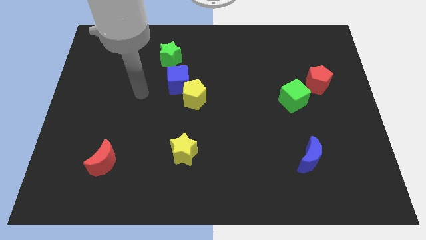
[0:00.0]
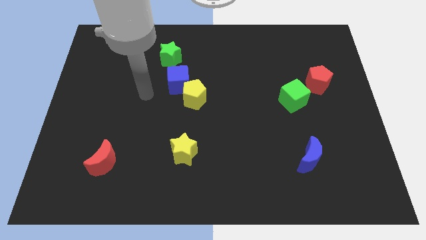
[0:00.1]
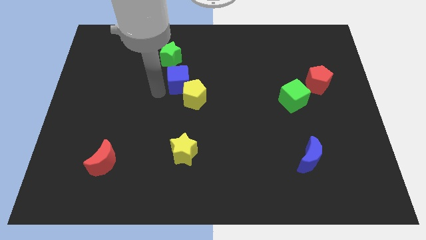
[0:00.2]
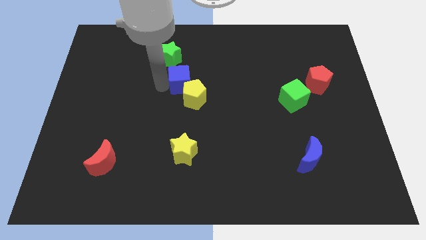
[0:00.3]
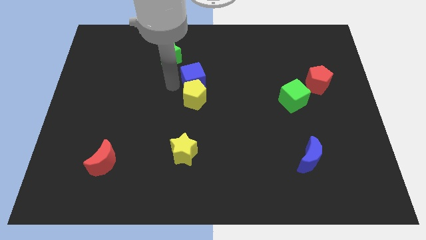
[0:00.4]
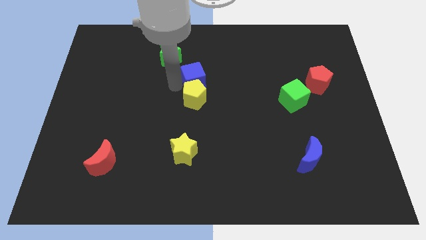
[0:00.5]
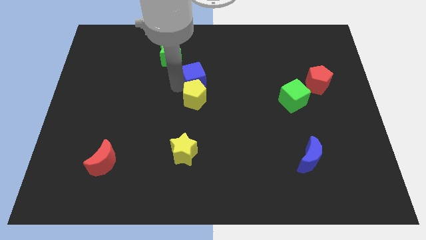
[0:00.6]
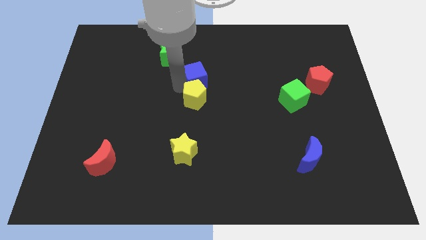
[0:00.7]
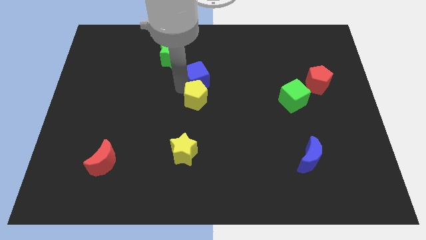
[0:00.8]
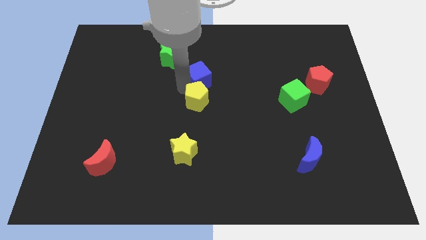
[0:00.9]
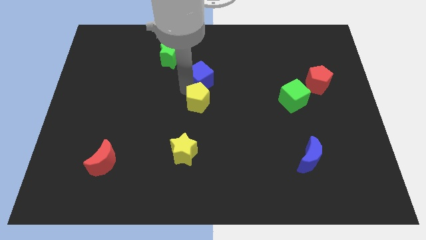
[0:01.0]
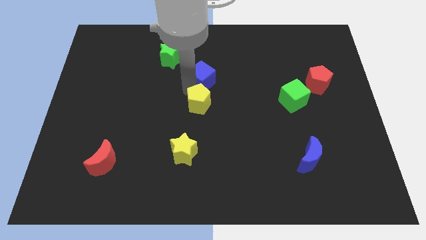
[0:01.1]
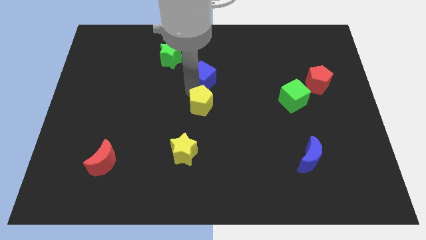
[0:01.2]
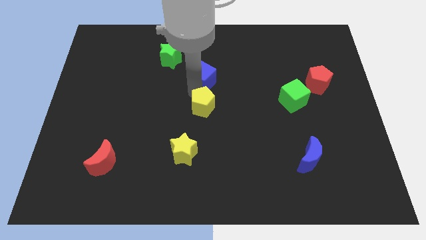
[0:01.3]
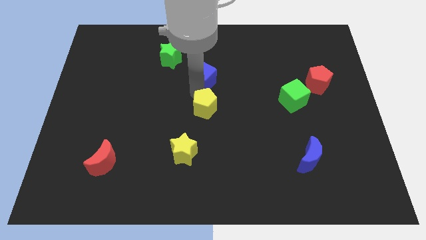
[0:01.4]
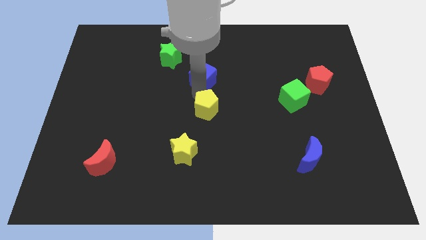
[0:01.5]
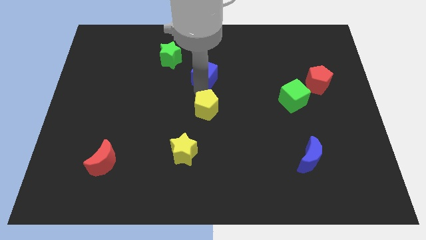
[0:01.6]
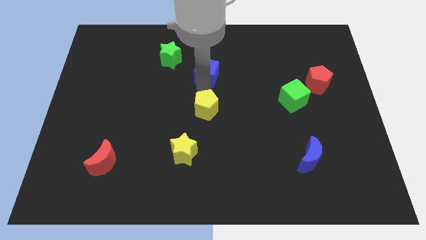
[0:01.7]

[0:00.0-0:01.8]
pull the yellow pentagon apart from the blue cube

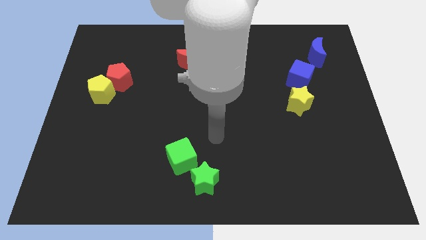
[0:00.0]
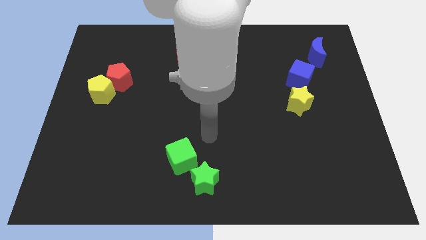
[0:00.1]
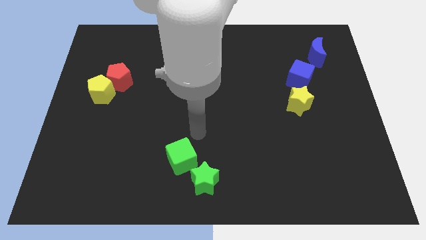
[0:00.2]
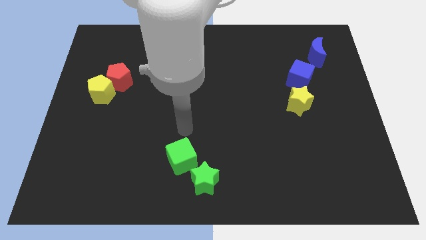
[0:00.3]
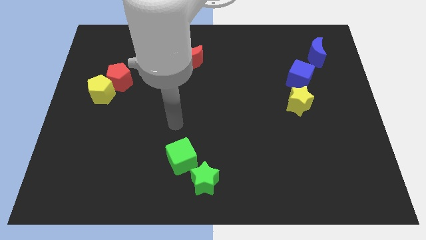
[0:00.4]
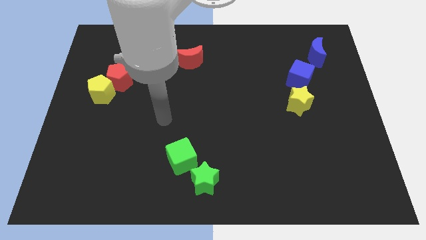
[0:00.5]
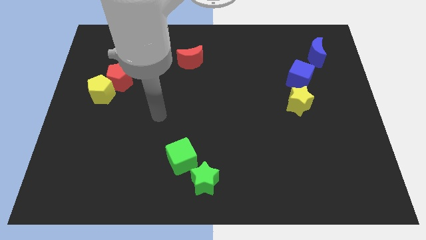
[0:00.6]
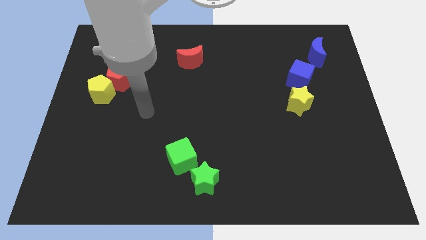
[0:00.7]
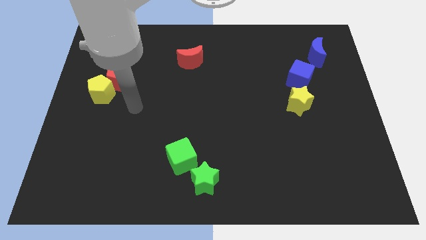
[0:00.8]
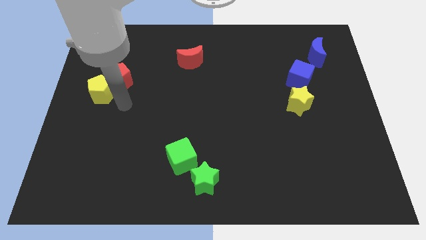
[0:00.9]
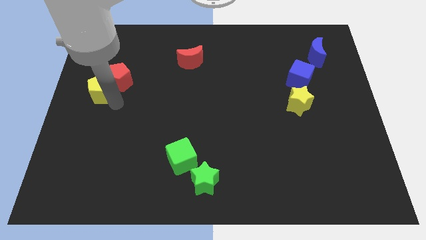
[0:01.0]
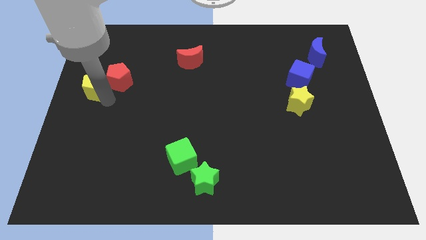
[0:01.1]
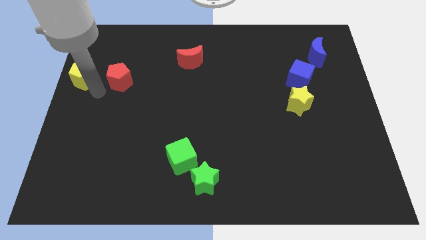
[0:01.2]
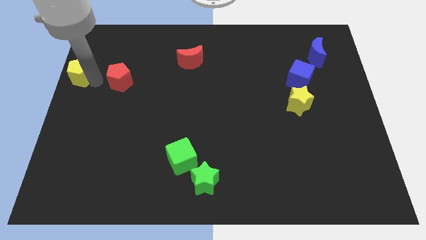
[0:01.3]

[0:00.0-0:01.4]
separate the red pentagon from the yellow pentagon

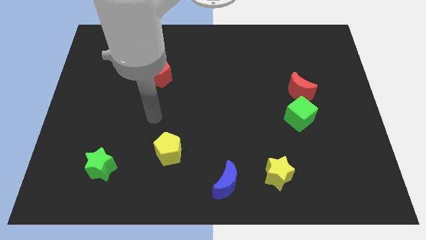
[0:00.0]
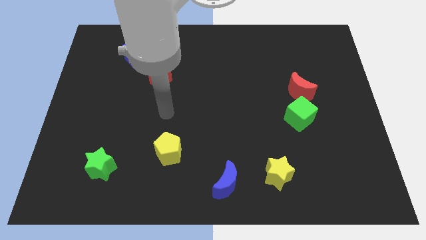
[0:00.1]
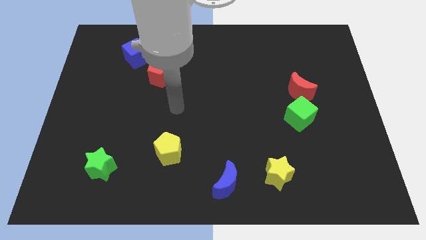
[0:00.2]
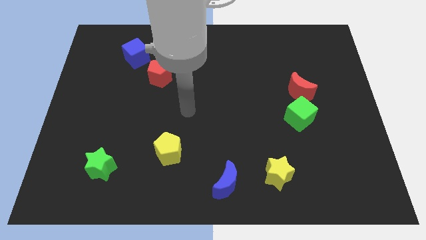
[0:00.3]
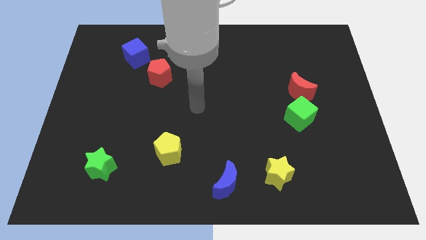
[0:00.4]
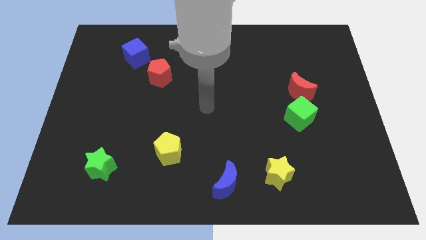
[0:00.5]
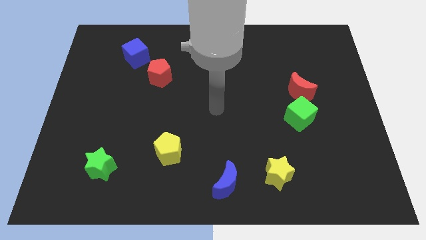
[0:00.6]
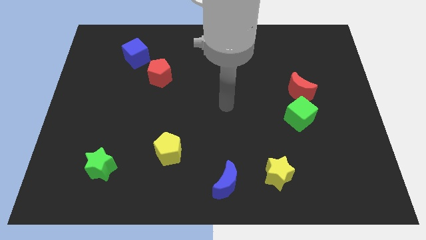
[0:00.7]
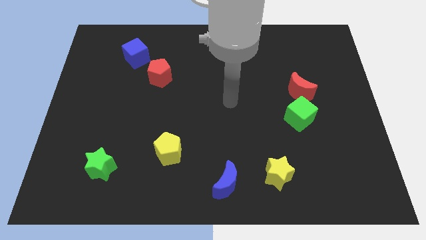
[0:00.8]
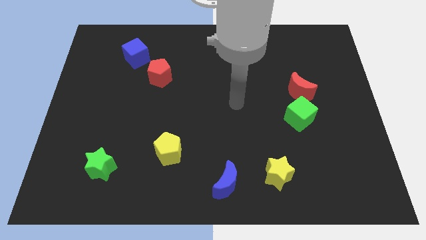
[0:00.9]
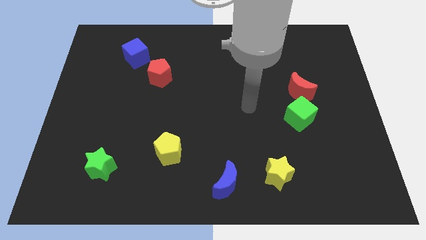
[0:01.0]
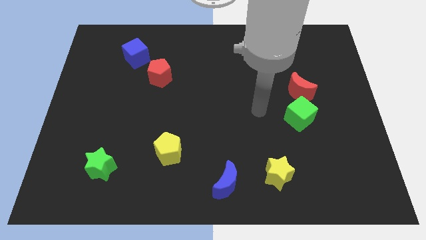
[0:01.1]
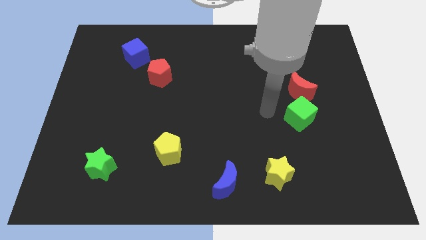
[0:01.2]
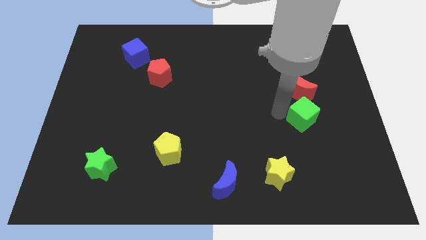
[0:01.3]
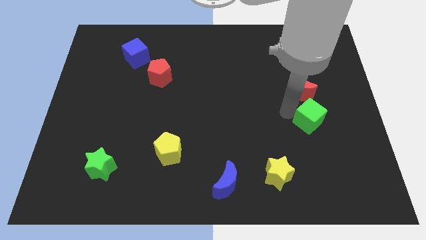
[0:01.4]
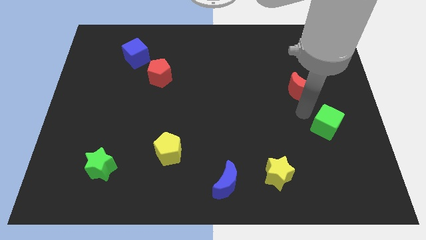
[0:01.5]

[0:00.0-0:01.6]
separate the red moon from the green cube

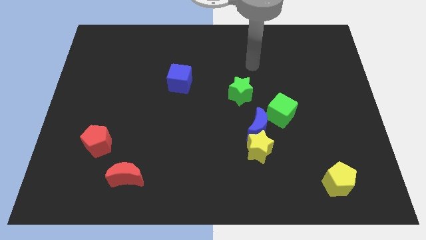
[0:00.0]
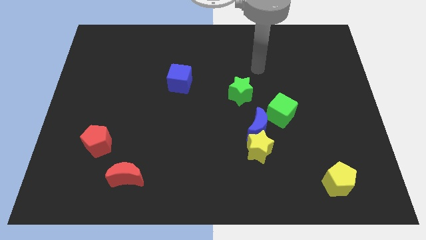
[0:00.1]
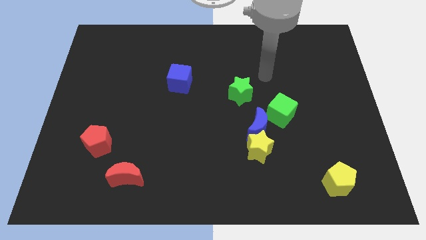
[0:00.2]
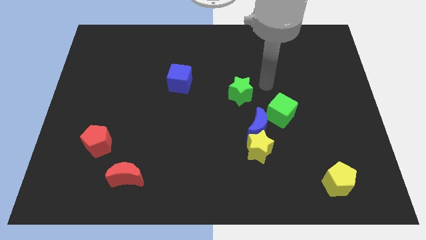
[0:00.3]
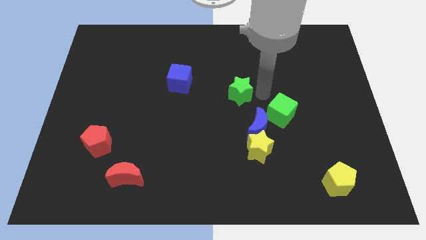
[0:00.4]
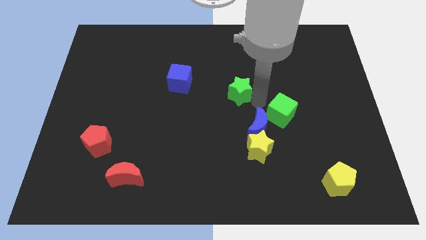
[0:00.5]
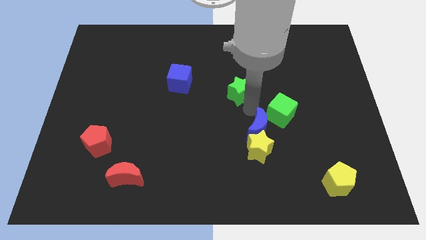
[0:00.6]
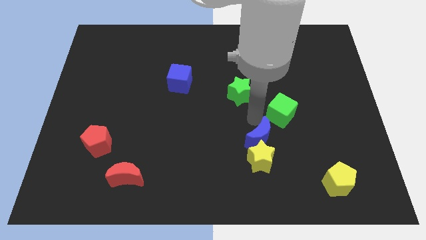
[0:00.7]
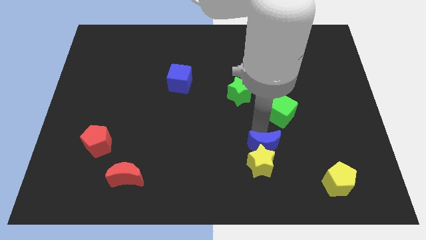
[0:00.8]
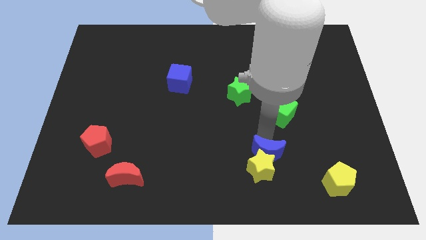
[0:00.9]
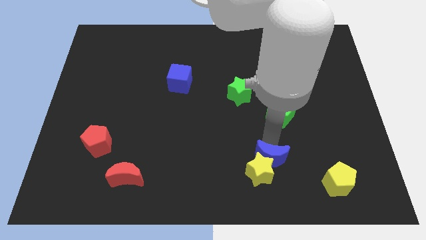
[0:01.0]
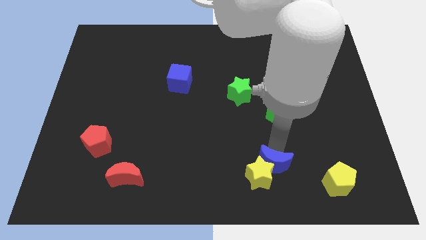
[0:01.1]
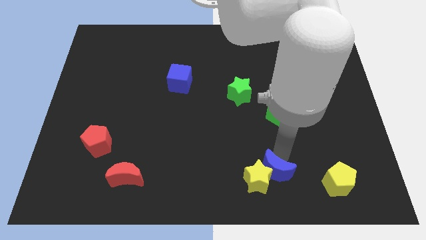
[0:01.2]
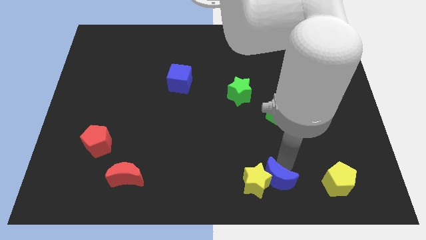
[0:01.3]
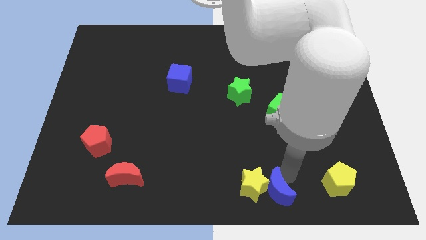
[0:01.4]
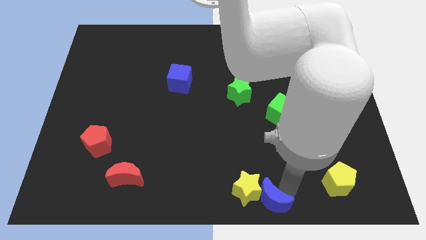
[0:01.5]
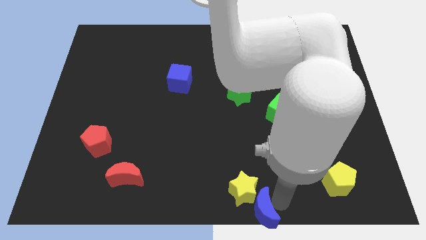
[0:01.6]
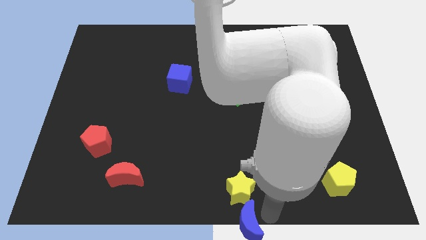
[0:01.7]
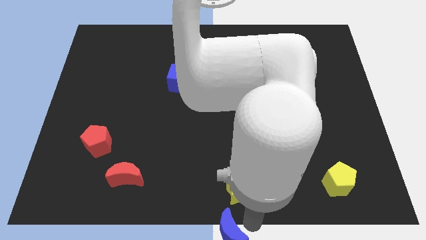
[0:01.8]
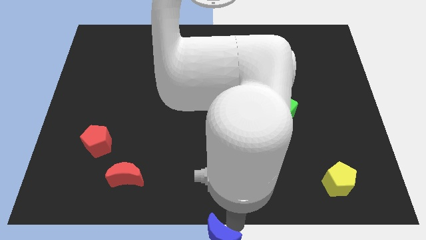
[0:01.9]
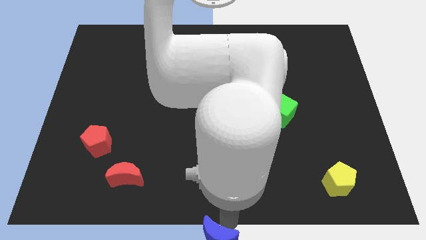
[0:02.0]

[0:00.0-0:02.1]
move the yellow star away from the blue moon

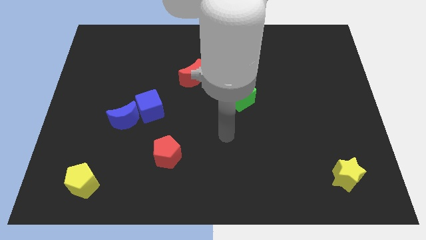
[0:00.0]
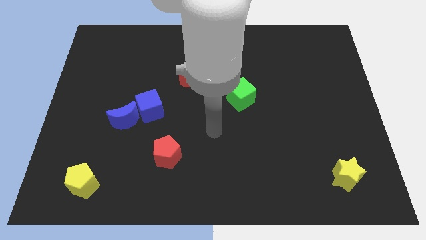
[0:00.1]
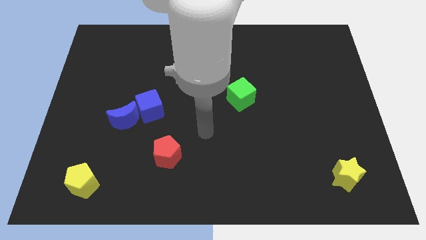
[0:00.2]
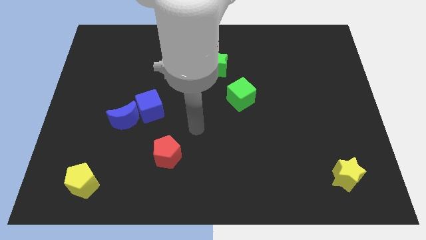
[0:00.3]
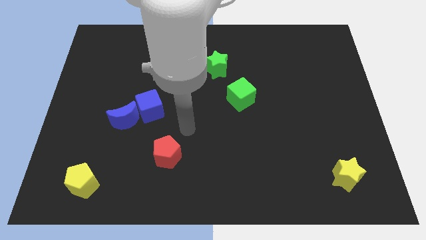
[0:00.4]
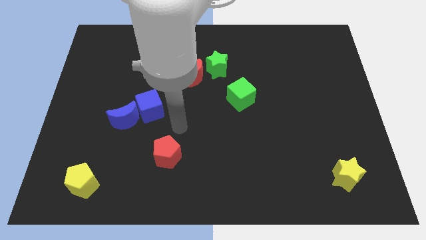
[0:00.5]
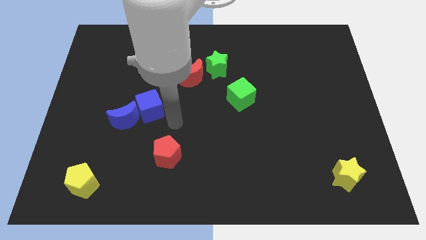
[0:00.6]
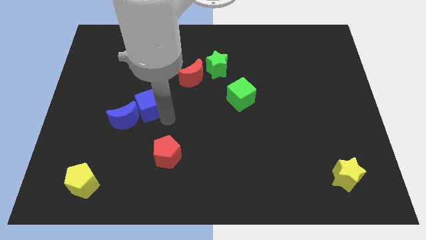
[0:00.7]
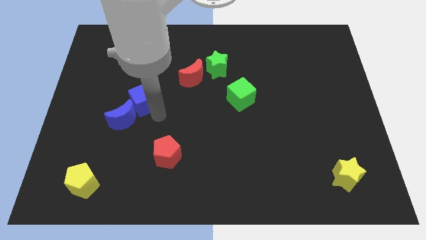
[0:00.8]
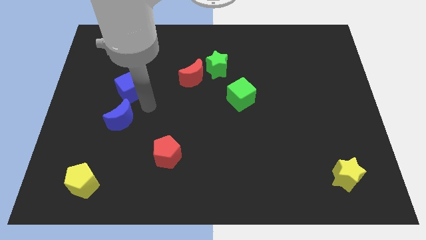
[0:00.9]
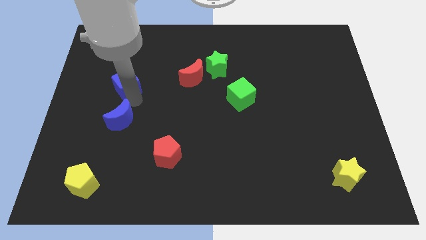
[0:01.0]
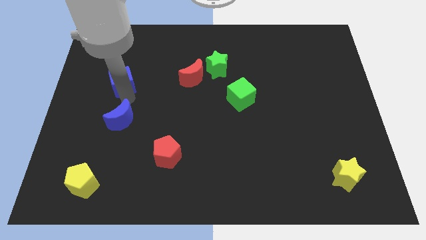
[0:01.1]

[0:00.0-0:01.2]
pull the blue moon apart from the blue cube

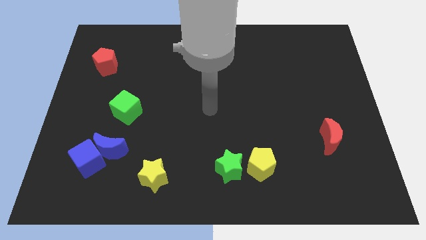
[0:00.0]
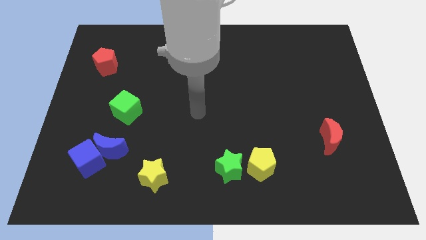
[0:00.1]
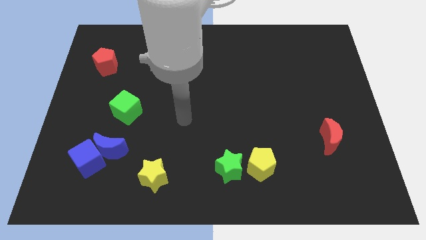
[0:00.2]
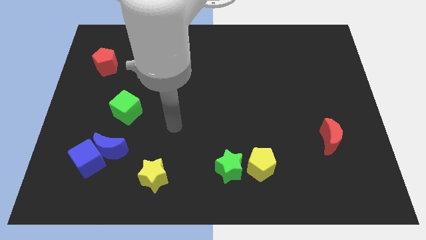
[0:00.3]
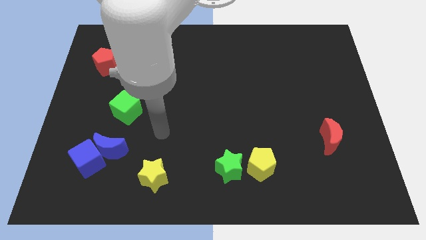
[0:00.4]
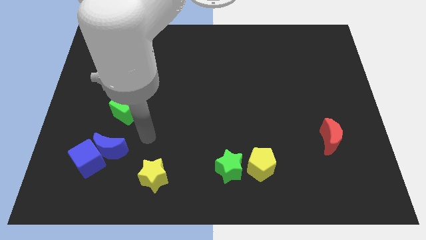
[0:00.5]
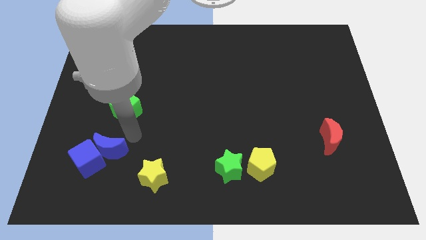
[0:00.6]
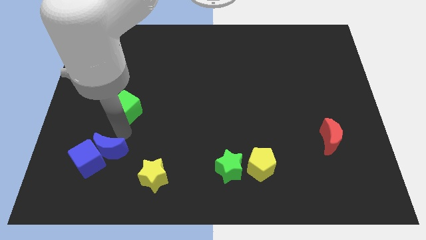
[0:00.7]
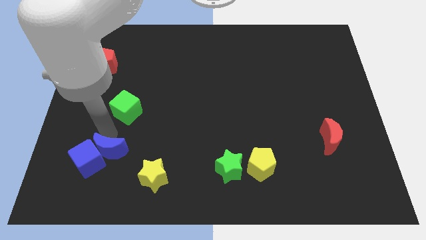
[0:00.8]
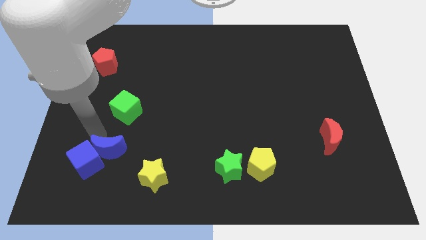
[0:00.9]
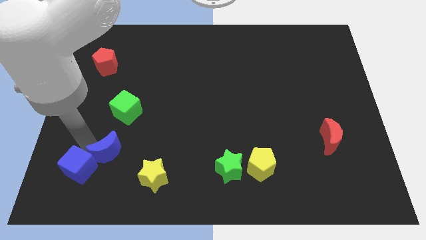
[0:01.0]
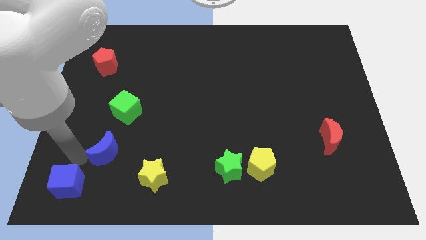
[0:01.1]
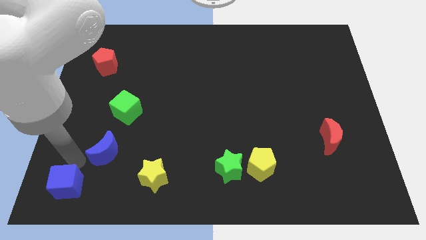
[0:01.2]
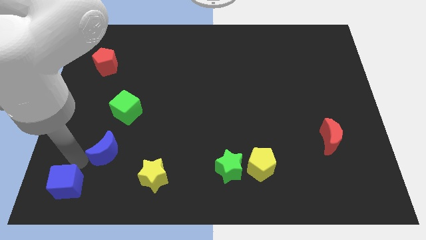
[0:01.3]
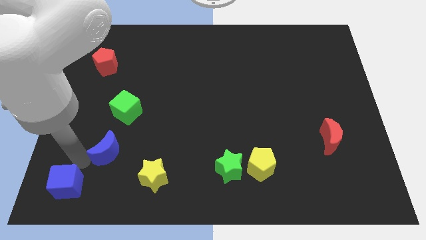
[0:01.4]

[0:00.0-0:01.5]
move the blue moon away from the blue cube
